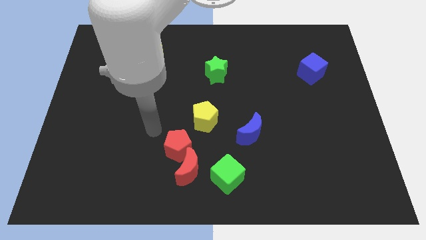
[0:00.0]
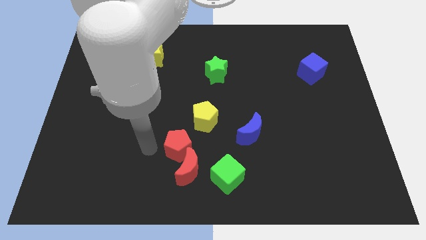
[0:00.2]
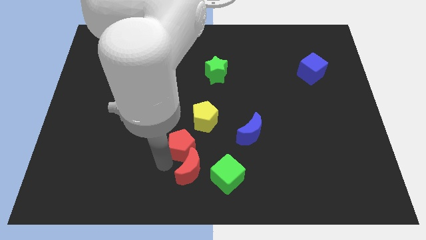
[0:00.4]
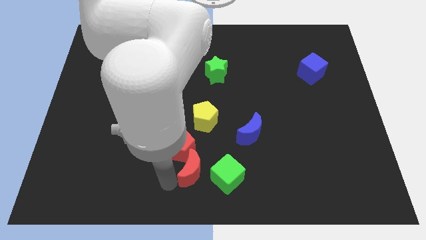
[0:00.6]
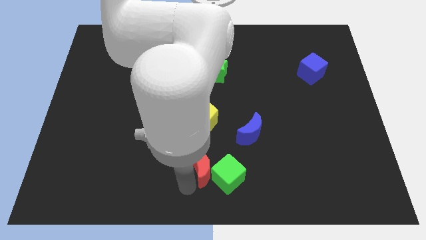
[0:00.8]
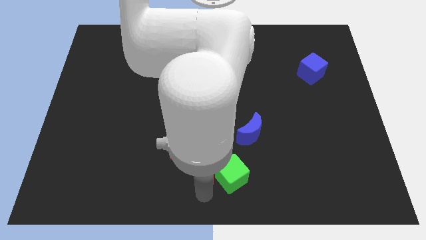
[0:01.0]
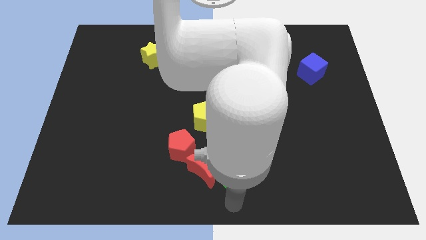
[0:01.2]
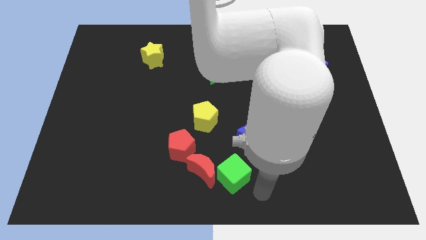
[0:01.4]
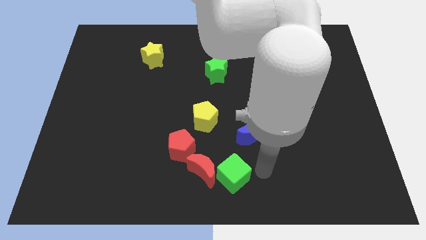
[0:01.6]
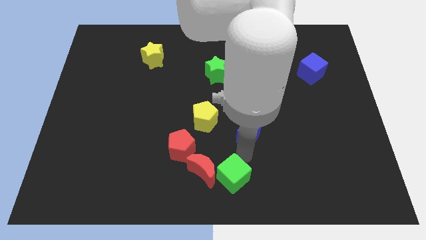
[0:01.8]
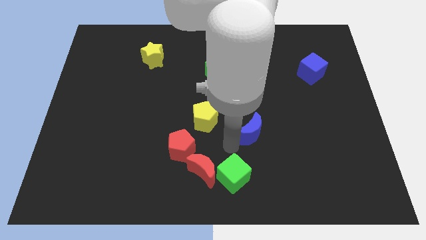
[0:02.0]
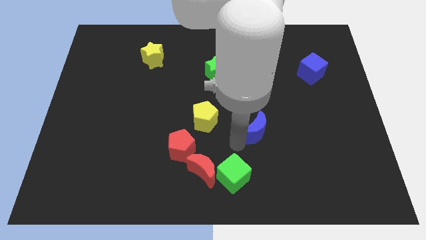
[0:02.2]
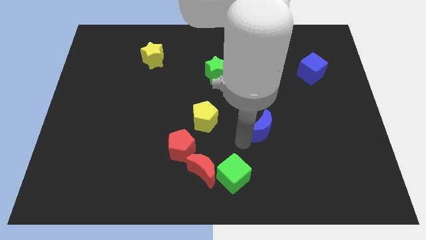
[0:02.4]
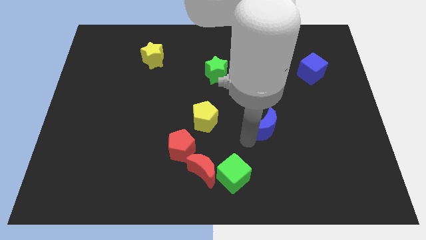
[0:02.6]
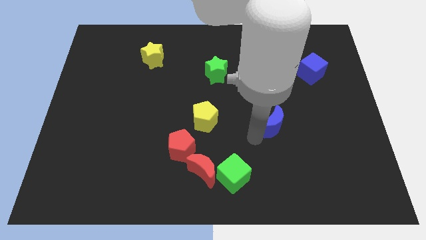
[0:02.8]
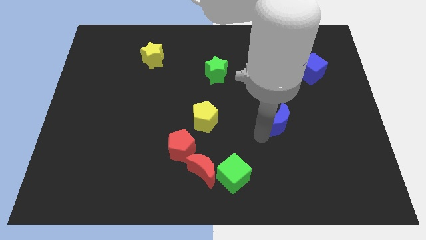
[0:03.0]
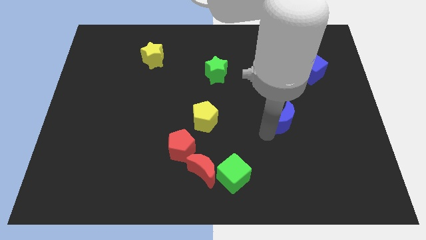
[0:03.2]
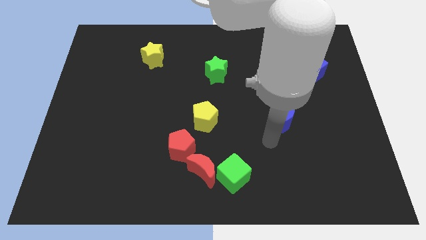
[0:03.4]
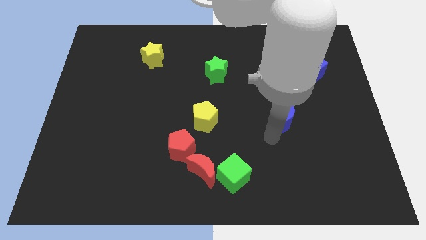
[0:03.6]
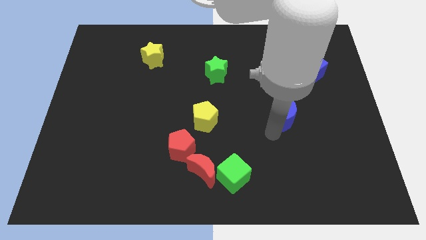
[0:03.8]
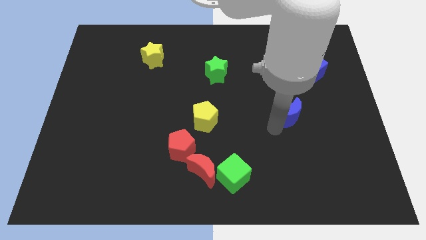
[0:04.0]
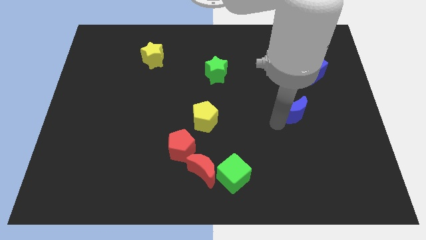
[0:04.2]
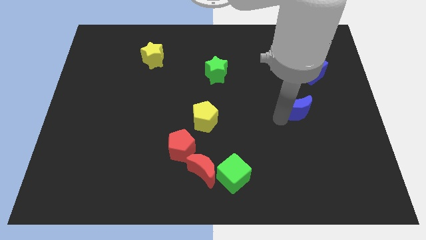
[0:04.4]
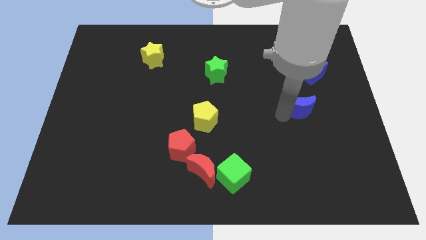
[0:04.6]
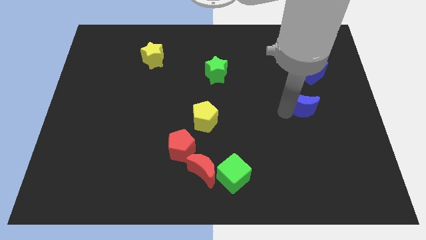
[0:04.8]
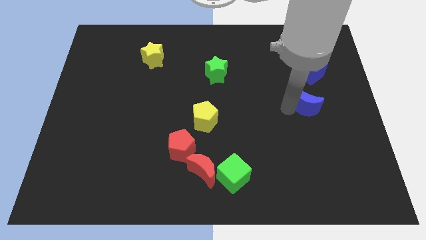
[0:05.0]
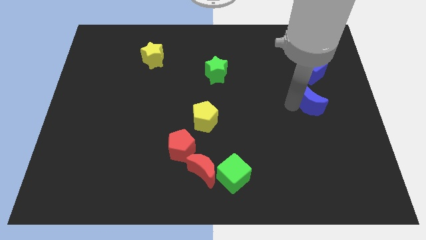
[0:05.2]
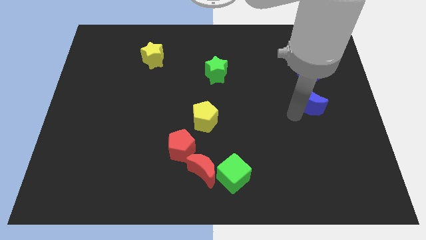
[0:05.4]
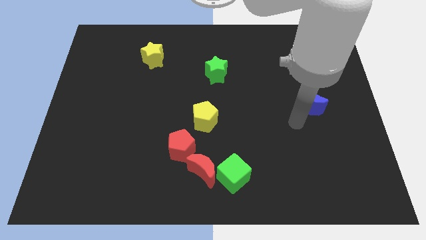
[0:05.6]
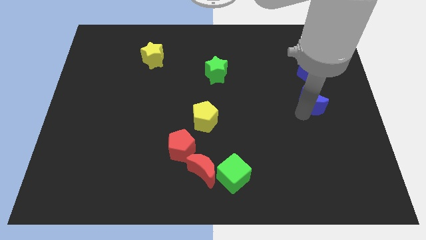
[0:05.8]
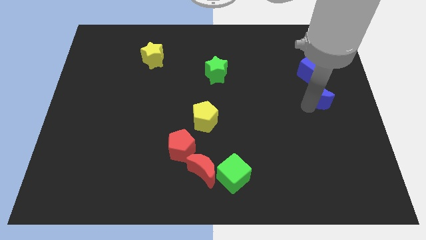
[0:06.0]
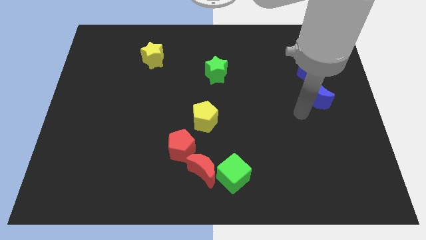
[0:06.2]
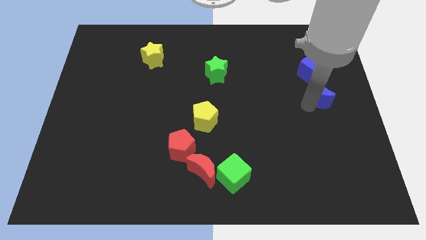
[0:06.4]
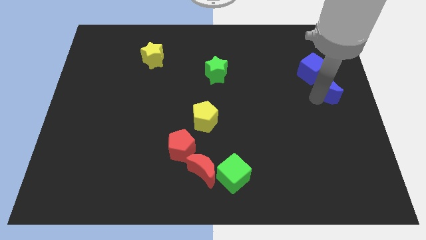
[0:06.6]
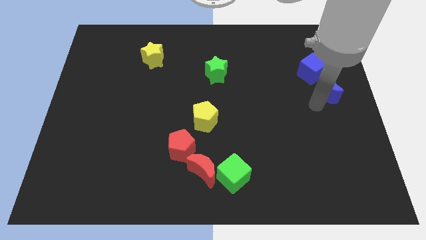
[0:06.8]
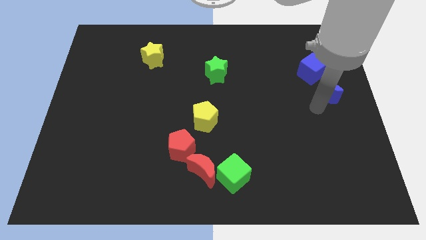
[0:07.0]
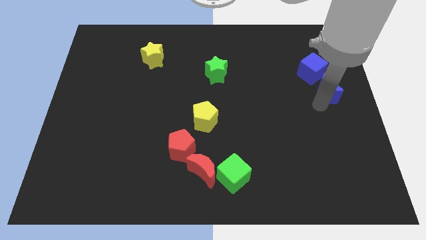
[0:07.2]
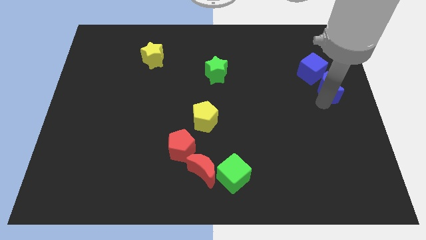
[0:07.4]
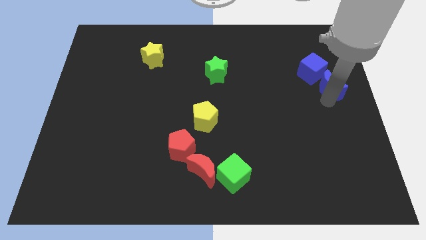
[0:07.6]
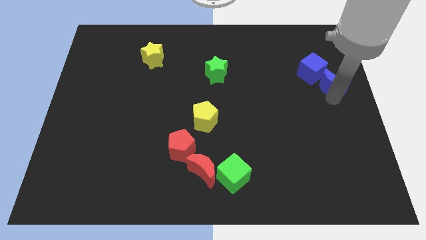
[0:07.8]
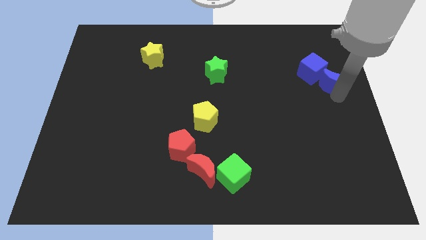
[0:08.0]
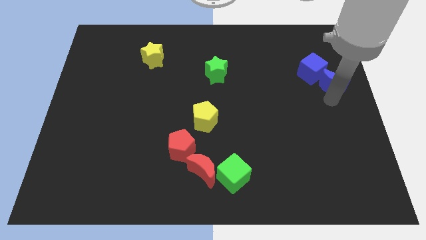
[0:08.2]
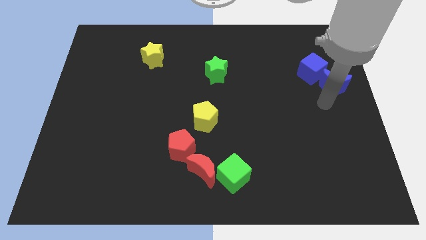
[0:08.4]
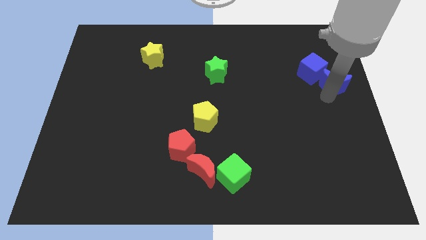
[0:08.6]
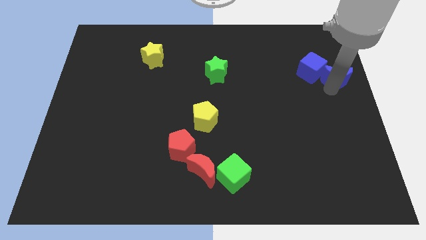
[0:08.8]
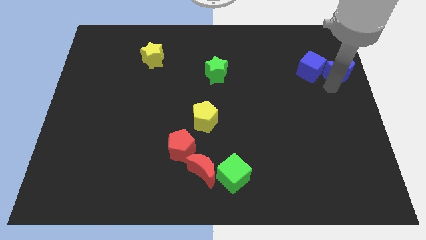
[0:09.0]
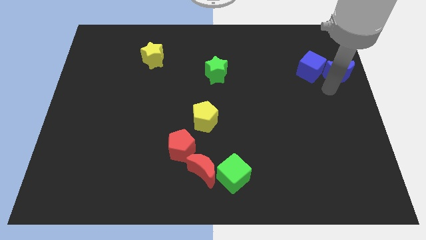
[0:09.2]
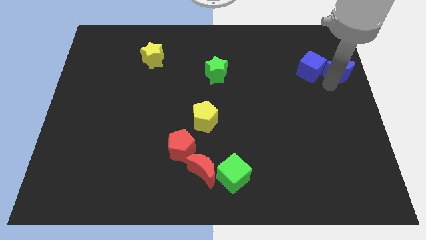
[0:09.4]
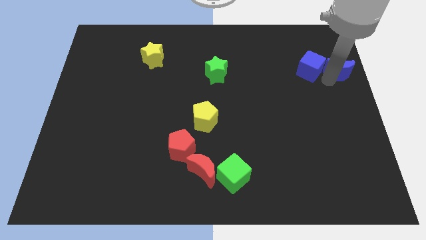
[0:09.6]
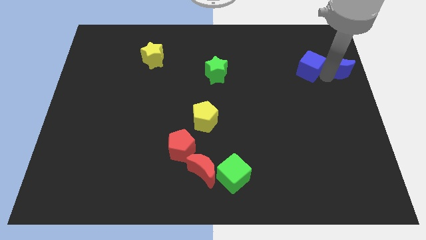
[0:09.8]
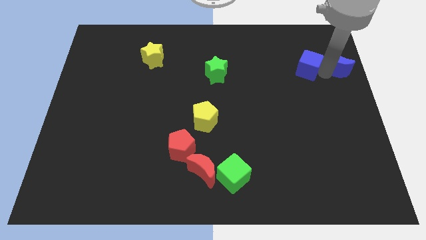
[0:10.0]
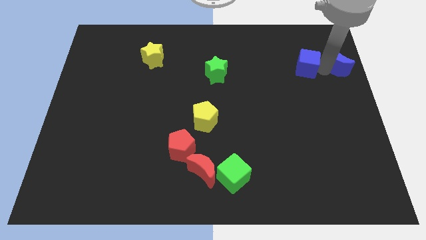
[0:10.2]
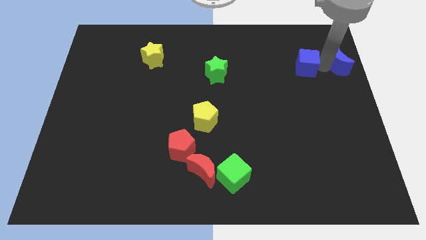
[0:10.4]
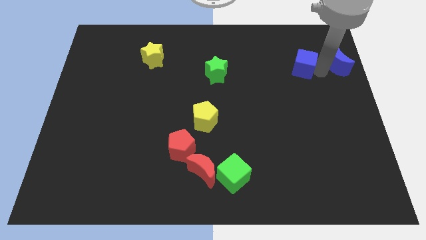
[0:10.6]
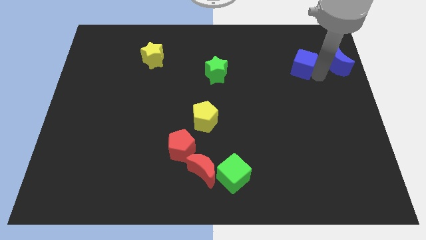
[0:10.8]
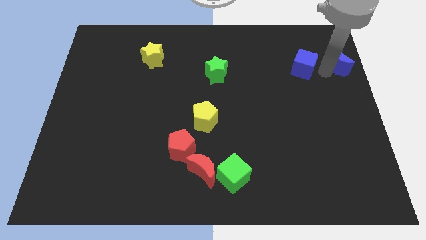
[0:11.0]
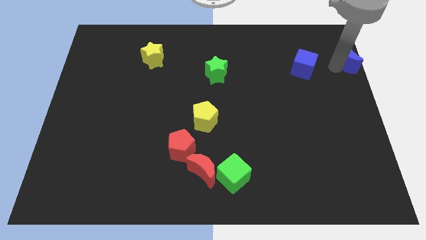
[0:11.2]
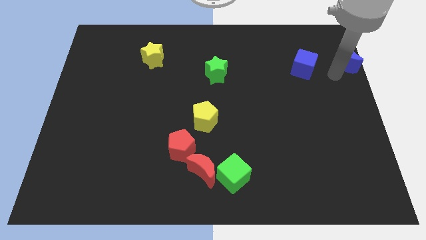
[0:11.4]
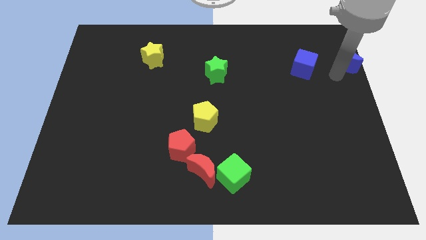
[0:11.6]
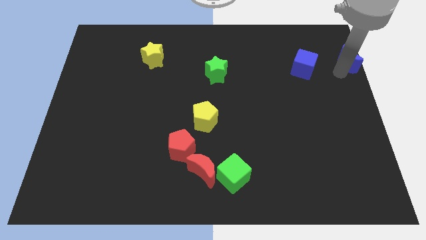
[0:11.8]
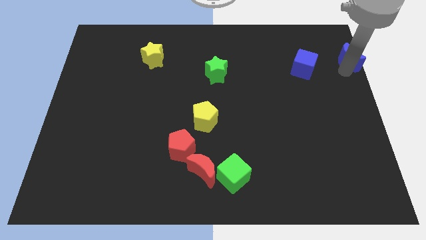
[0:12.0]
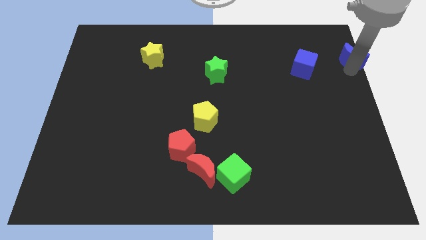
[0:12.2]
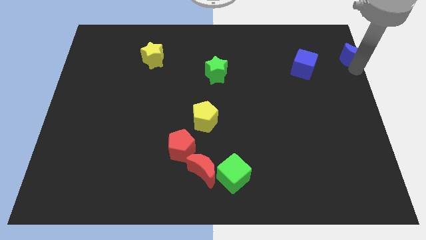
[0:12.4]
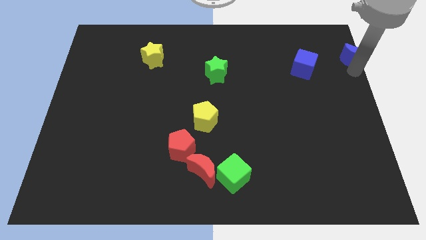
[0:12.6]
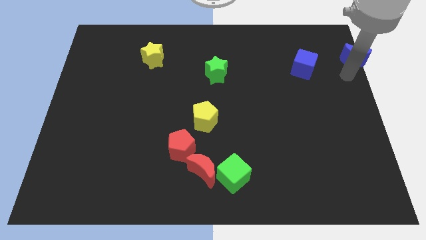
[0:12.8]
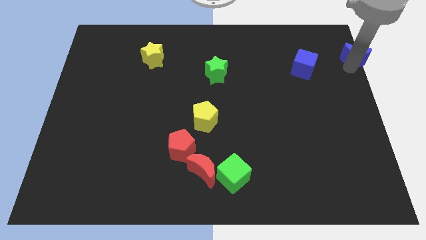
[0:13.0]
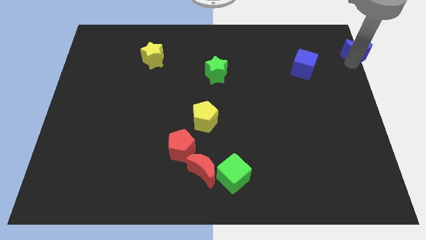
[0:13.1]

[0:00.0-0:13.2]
slide the blue moon to the upper right corner

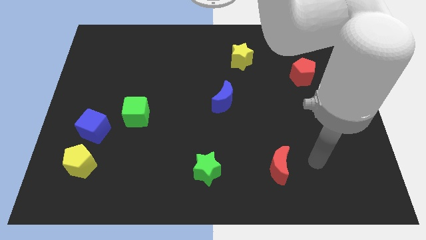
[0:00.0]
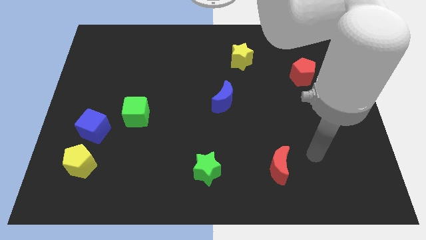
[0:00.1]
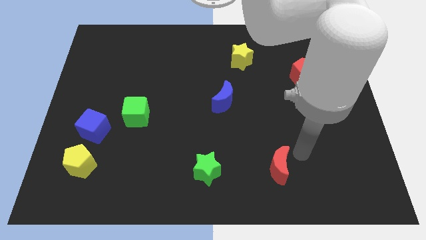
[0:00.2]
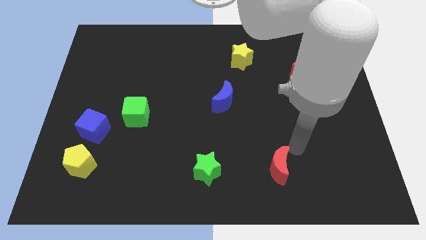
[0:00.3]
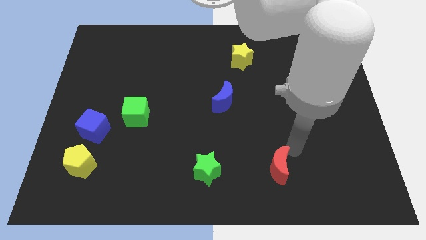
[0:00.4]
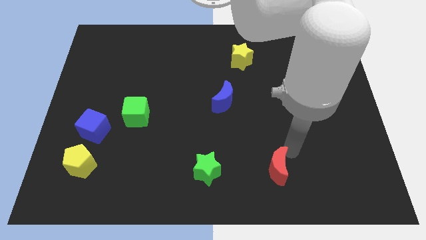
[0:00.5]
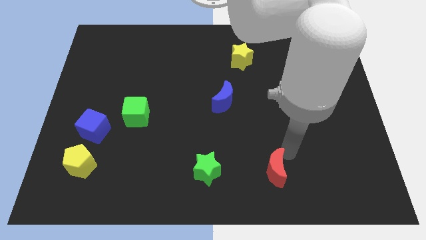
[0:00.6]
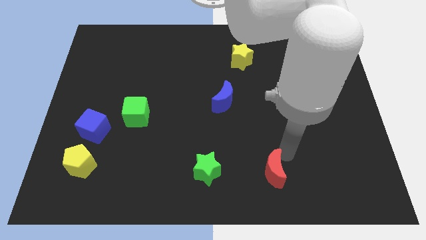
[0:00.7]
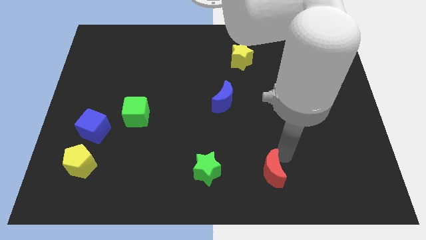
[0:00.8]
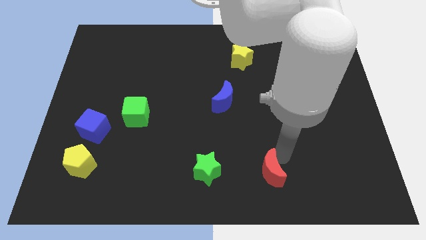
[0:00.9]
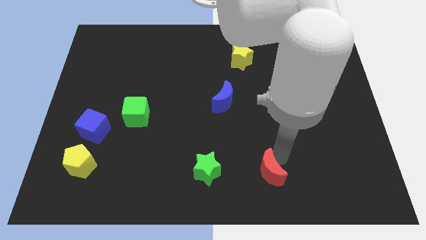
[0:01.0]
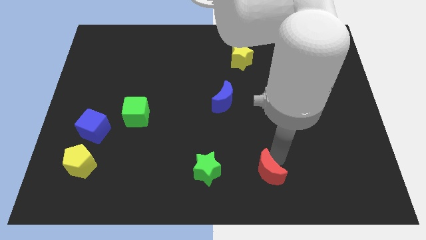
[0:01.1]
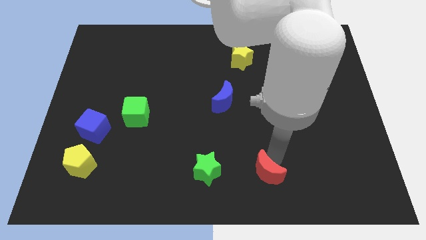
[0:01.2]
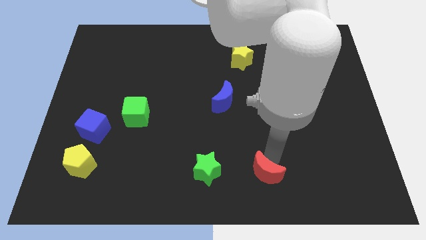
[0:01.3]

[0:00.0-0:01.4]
put the red moon to the bottom
